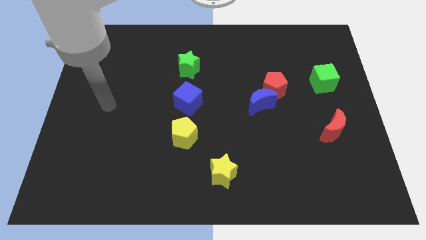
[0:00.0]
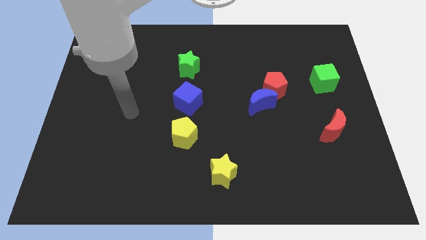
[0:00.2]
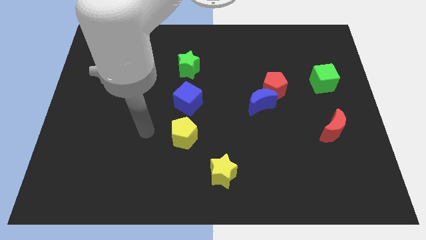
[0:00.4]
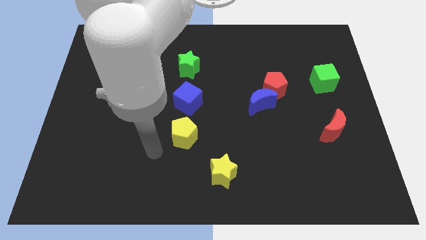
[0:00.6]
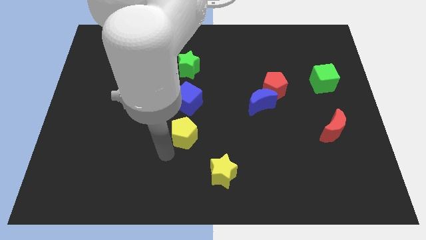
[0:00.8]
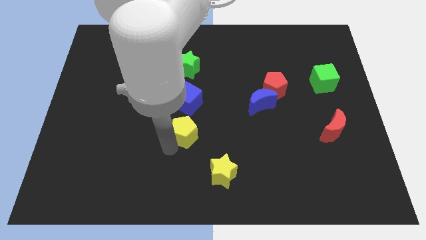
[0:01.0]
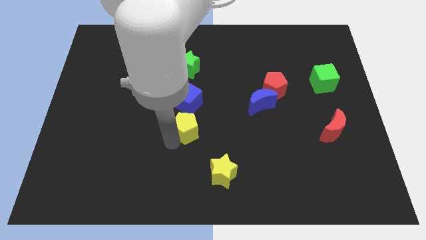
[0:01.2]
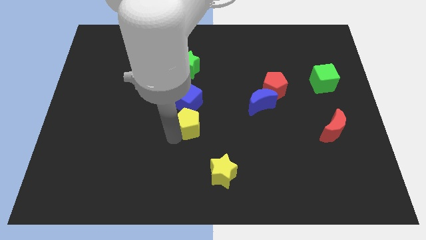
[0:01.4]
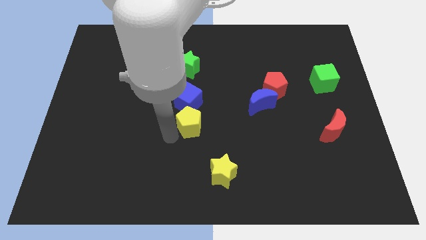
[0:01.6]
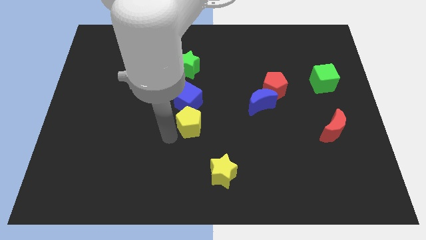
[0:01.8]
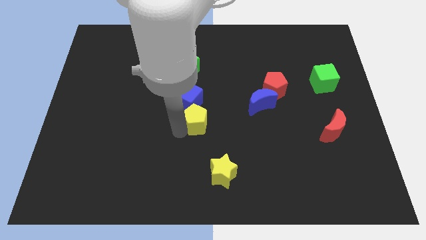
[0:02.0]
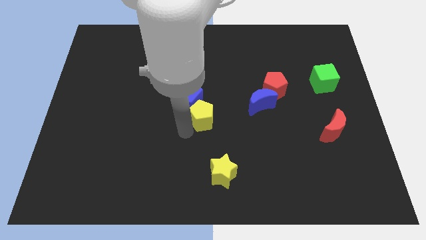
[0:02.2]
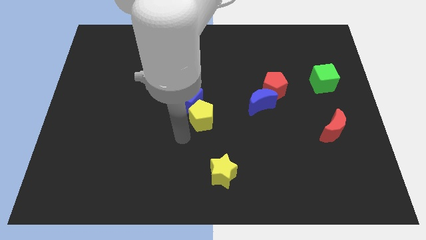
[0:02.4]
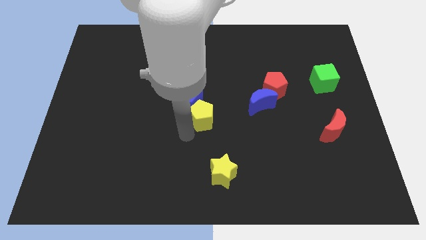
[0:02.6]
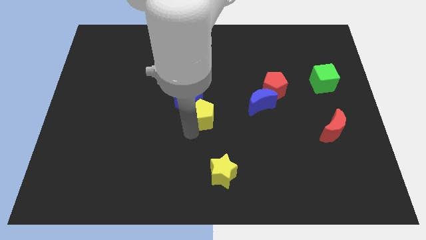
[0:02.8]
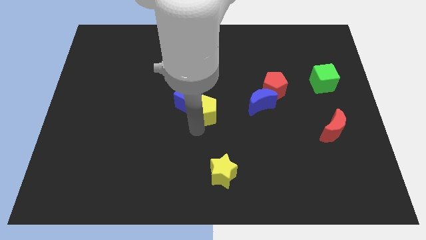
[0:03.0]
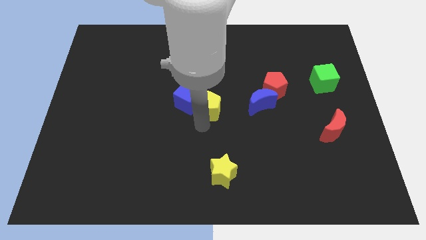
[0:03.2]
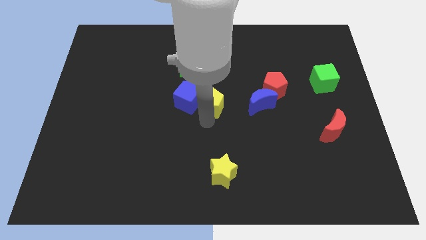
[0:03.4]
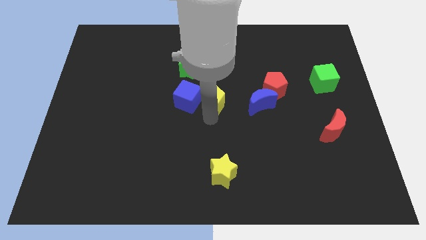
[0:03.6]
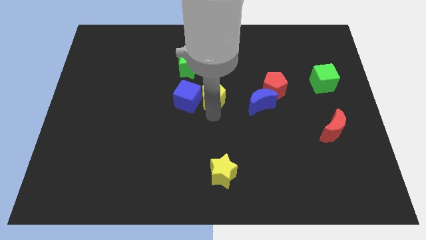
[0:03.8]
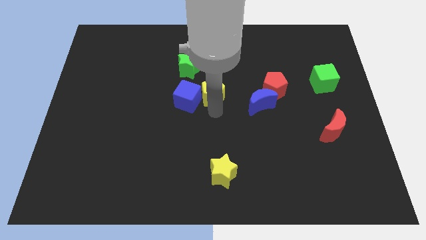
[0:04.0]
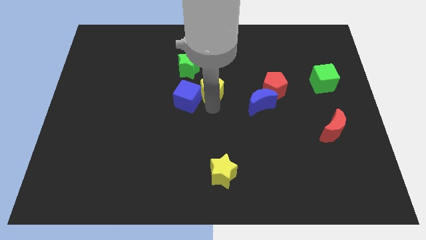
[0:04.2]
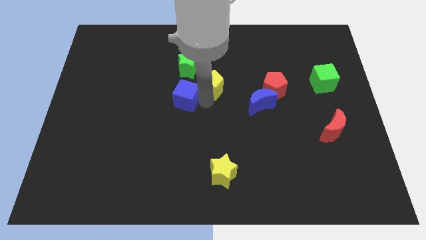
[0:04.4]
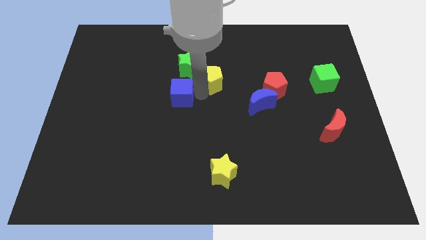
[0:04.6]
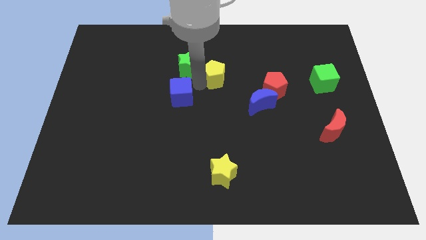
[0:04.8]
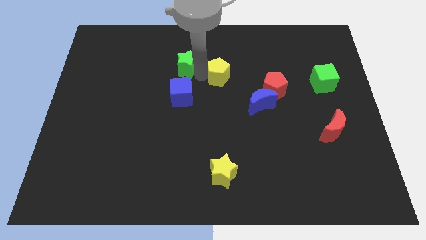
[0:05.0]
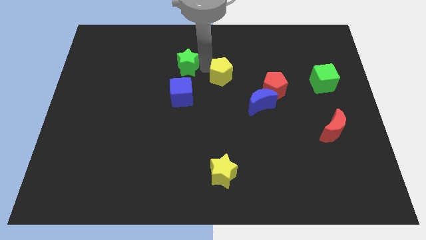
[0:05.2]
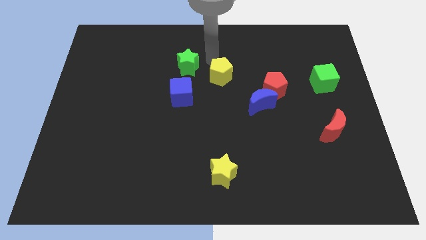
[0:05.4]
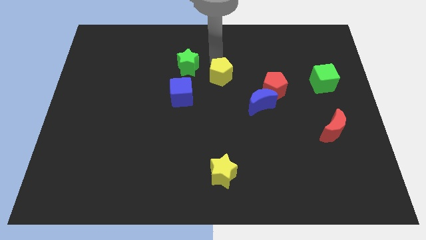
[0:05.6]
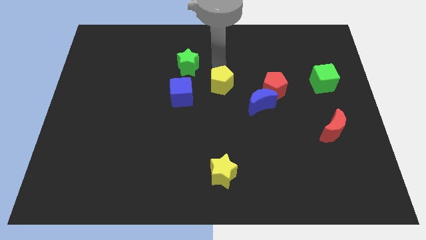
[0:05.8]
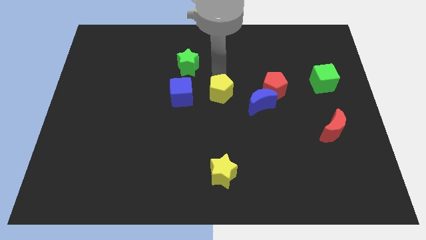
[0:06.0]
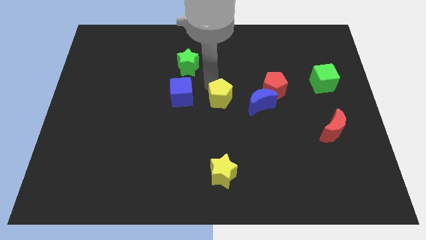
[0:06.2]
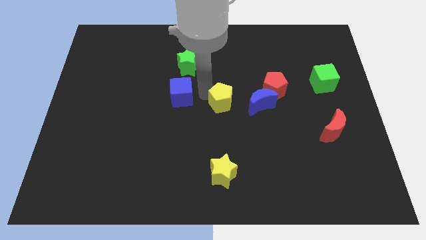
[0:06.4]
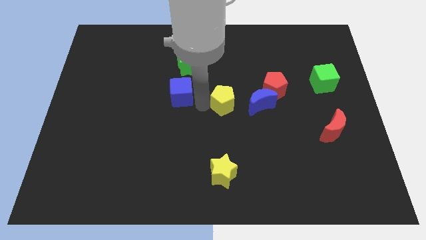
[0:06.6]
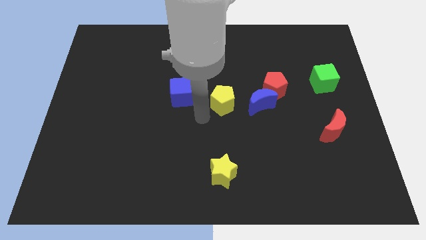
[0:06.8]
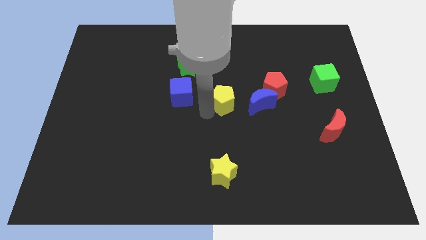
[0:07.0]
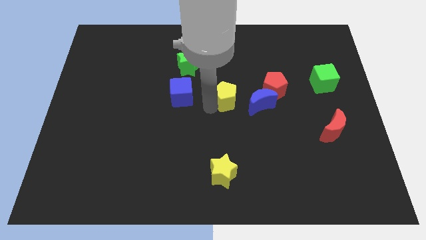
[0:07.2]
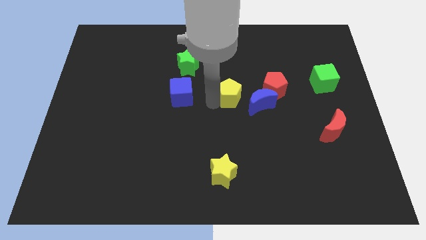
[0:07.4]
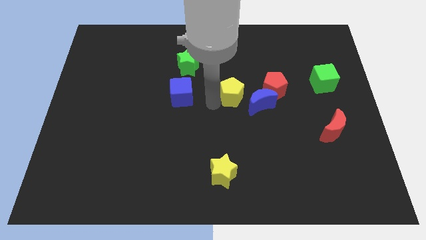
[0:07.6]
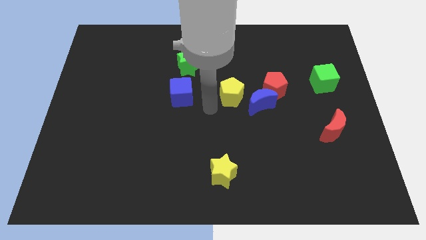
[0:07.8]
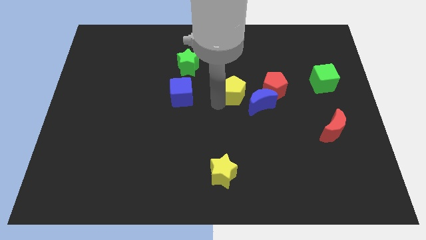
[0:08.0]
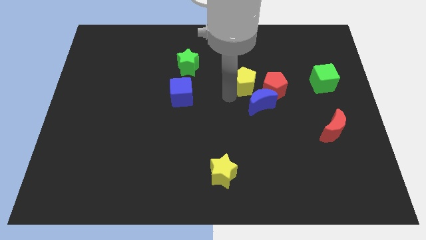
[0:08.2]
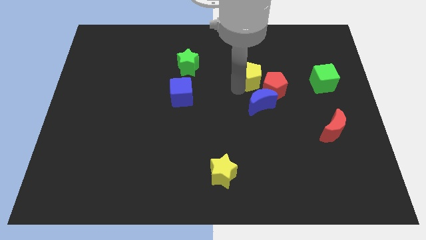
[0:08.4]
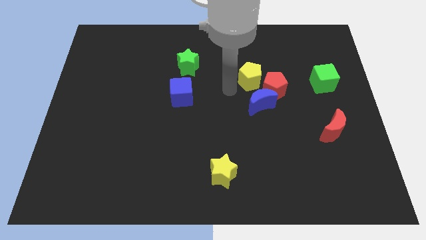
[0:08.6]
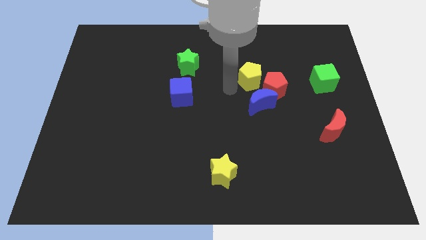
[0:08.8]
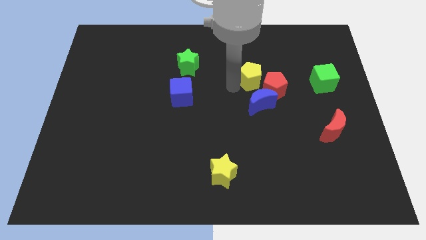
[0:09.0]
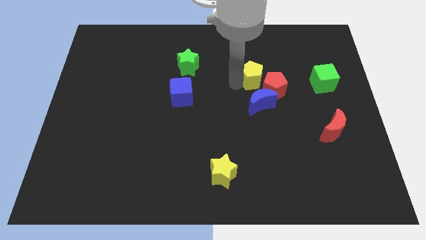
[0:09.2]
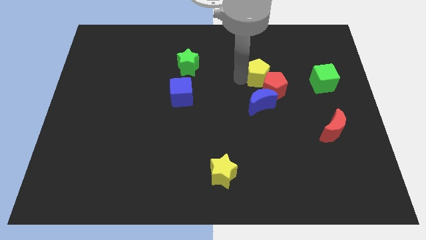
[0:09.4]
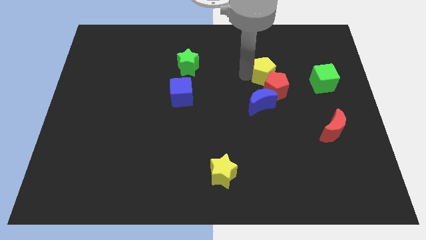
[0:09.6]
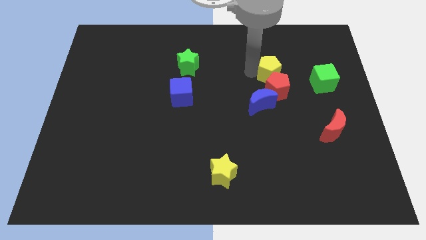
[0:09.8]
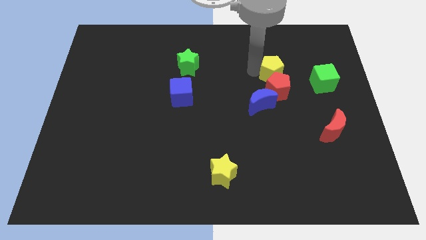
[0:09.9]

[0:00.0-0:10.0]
move the yellow pentagon to the top right side of the red pentagon

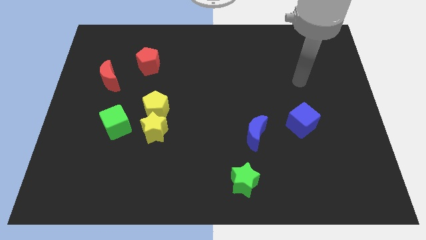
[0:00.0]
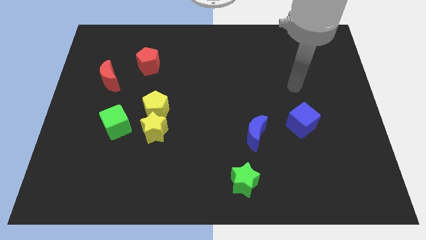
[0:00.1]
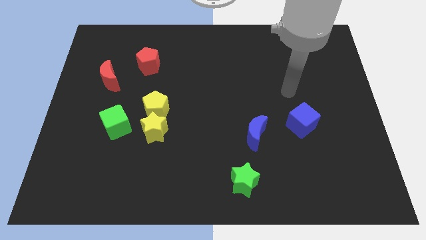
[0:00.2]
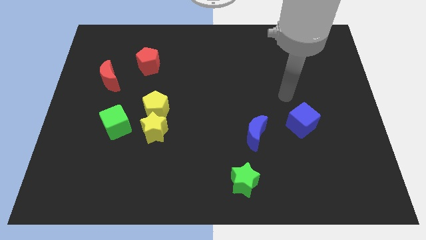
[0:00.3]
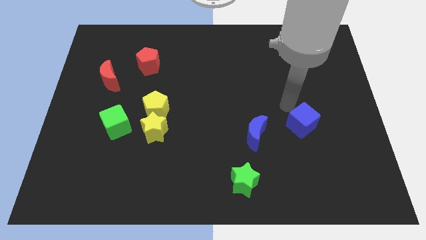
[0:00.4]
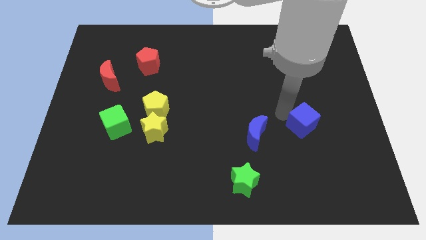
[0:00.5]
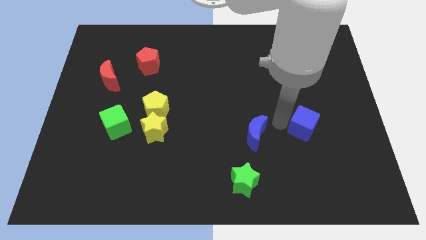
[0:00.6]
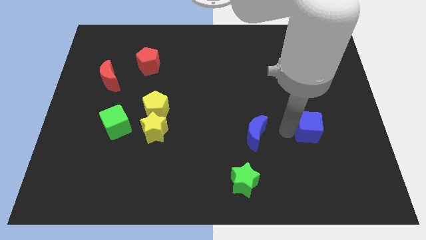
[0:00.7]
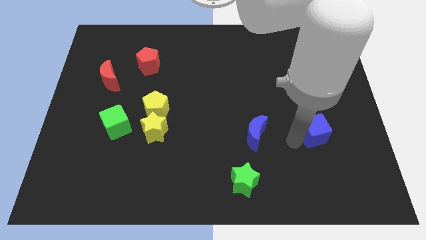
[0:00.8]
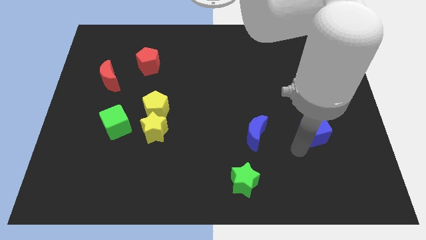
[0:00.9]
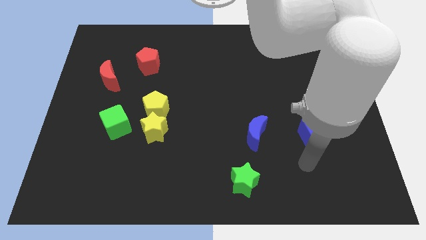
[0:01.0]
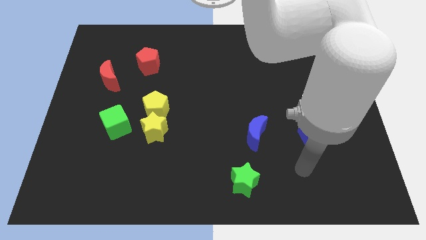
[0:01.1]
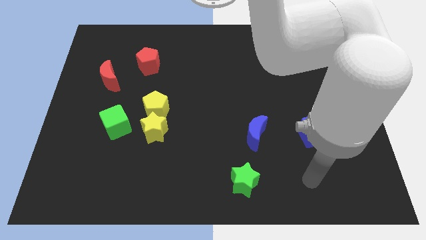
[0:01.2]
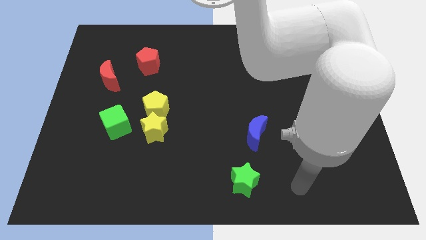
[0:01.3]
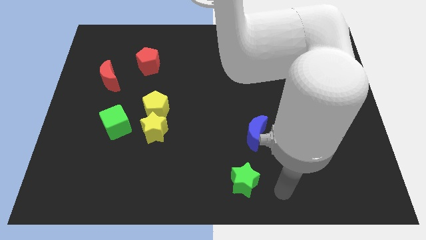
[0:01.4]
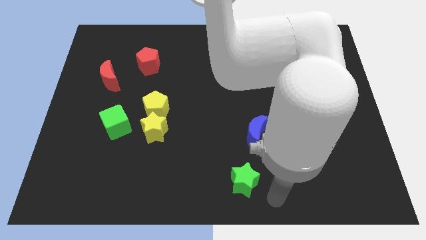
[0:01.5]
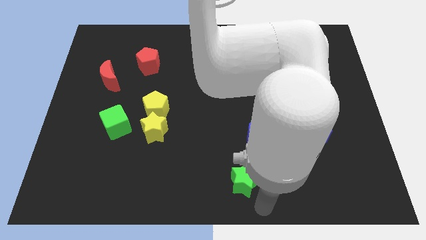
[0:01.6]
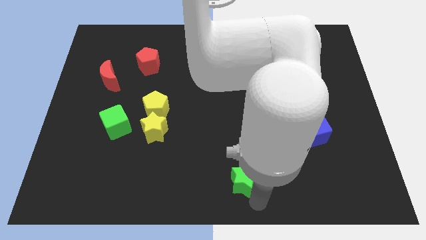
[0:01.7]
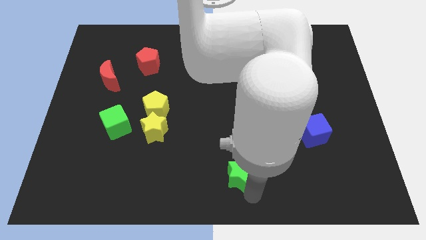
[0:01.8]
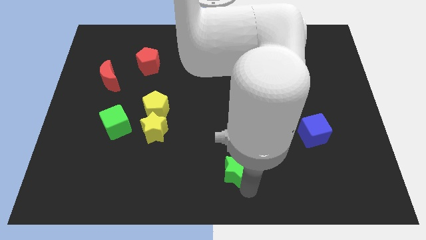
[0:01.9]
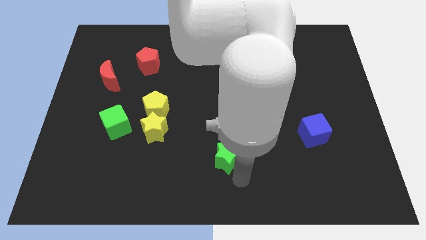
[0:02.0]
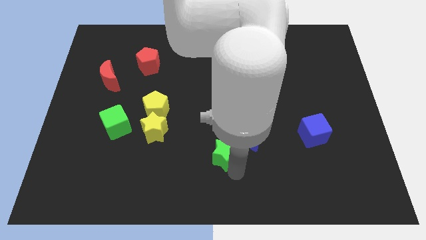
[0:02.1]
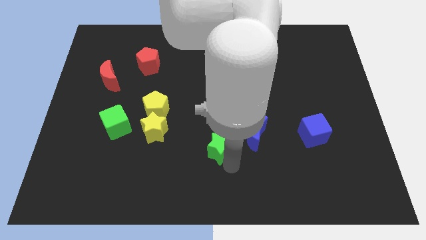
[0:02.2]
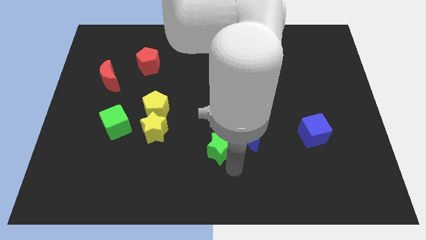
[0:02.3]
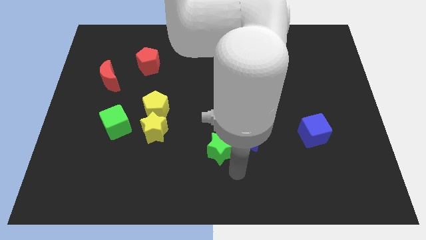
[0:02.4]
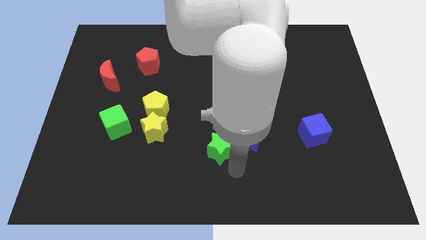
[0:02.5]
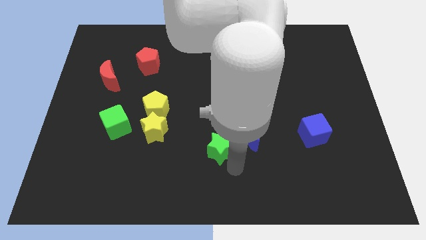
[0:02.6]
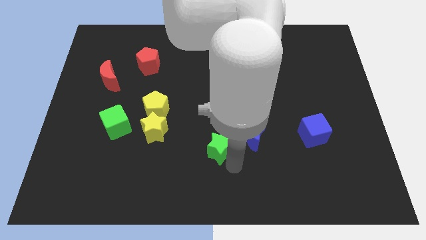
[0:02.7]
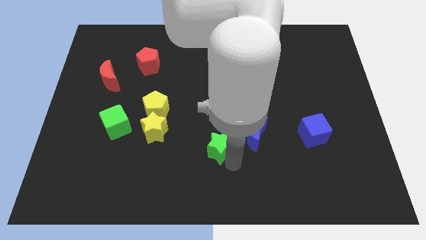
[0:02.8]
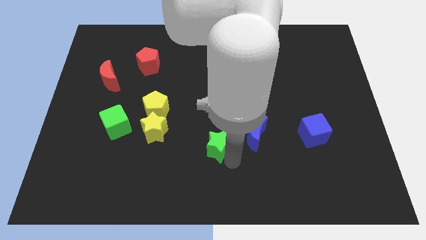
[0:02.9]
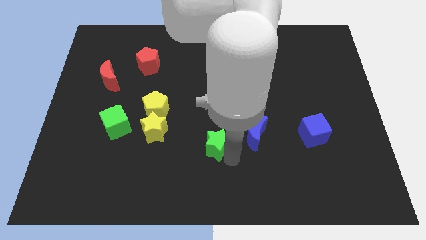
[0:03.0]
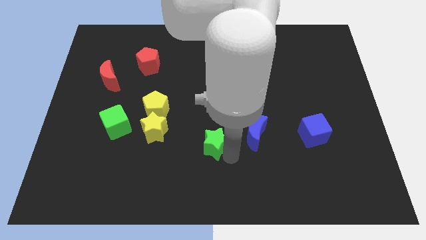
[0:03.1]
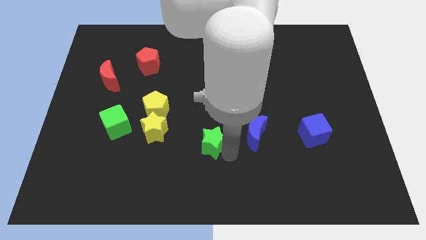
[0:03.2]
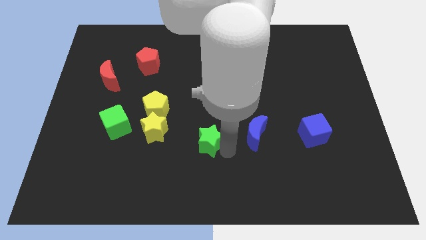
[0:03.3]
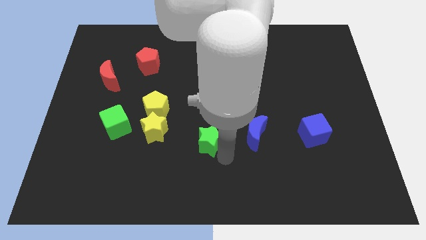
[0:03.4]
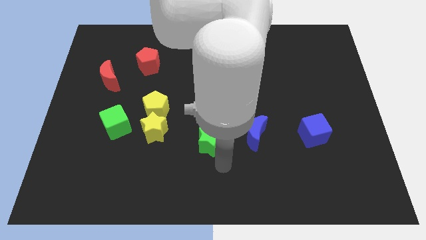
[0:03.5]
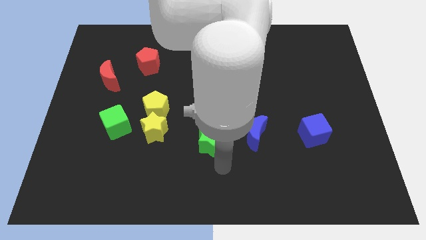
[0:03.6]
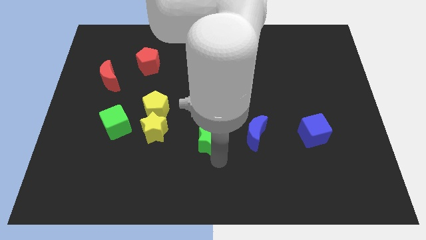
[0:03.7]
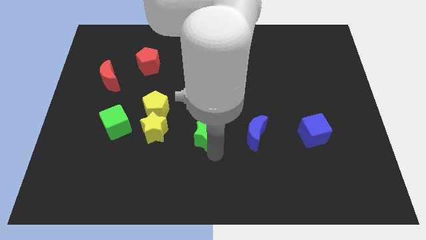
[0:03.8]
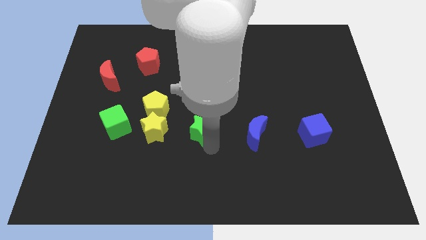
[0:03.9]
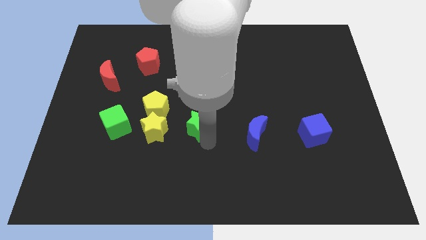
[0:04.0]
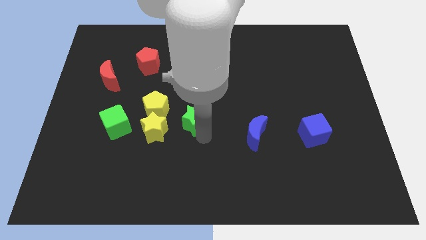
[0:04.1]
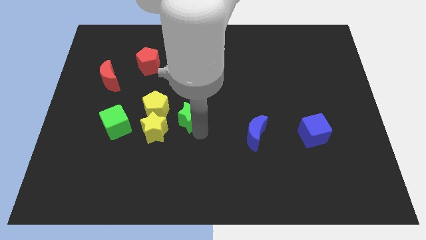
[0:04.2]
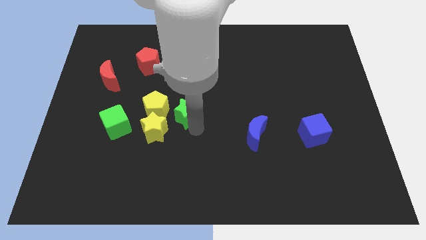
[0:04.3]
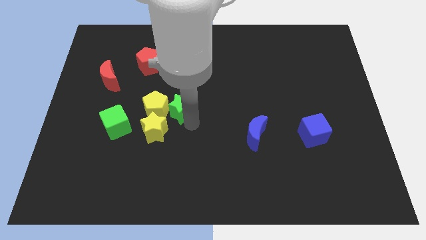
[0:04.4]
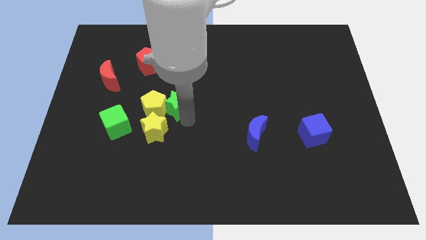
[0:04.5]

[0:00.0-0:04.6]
put the green star to the top of the yellow star
